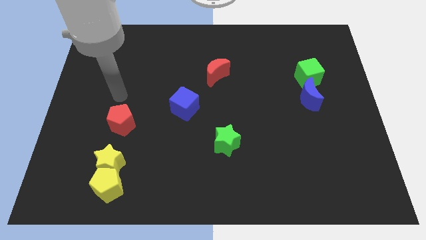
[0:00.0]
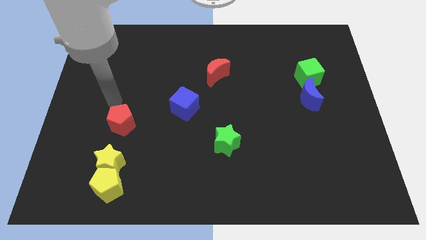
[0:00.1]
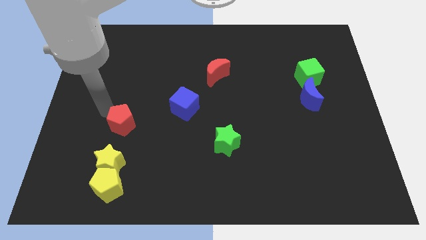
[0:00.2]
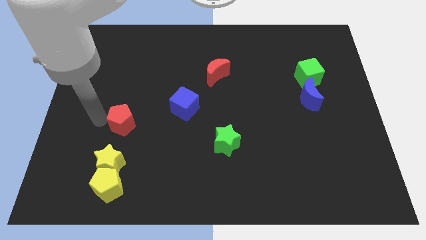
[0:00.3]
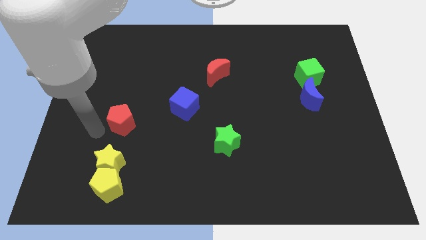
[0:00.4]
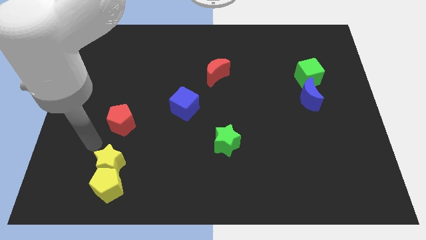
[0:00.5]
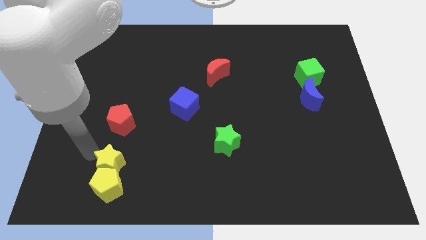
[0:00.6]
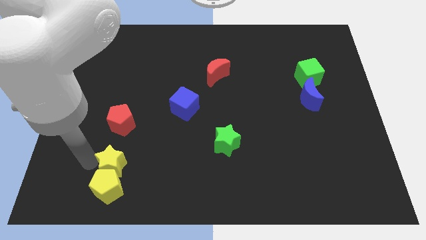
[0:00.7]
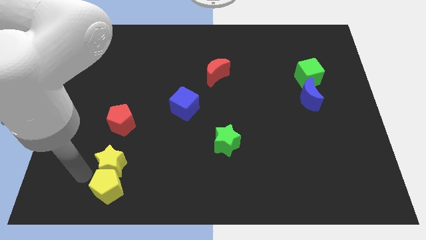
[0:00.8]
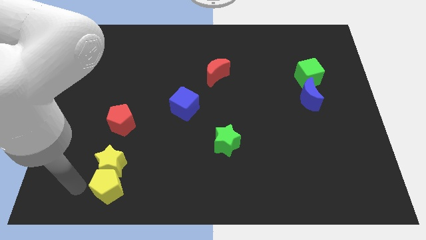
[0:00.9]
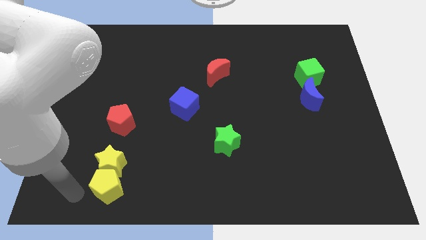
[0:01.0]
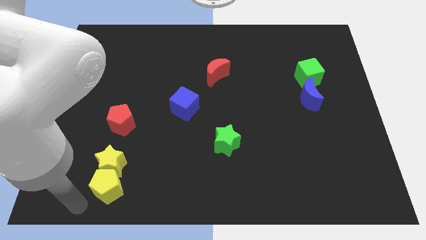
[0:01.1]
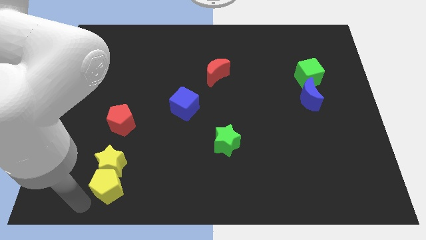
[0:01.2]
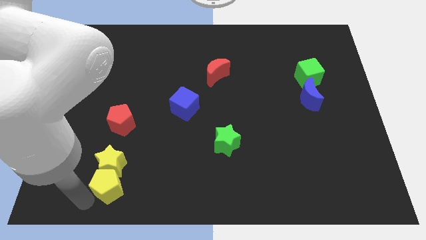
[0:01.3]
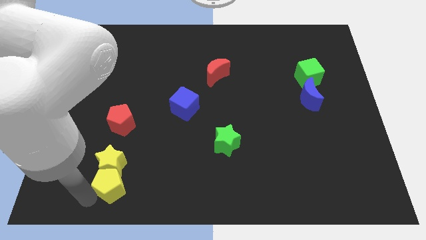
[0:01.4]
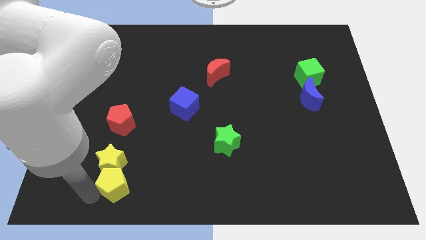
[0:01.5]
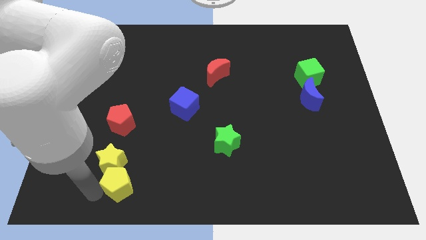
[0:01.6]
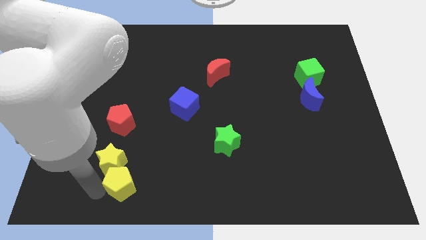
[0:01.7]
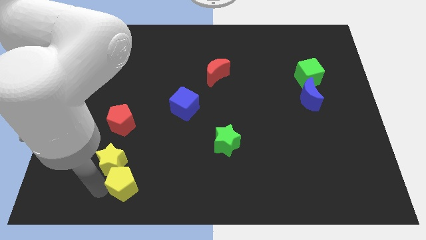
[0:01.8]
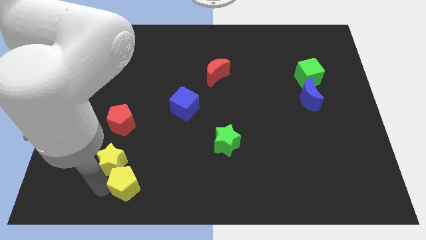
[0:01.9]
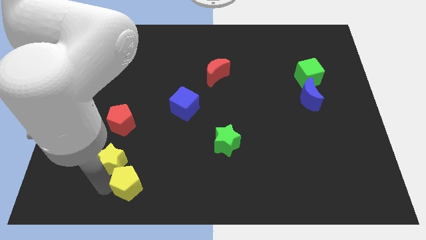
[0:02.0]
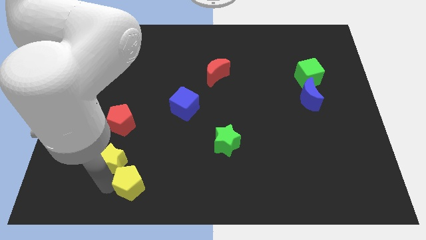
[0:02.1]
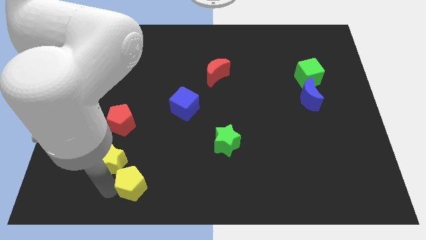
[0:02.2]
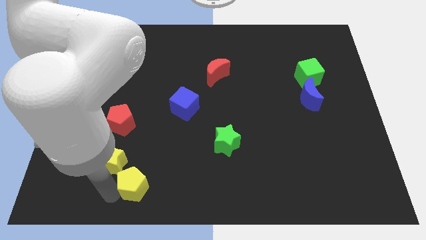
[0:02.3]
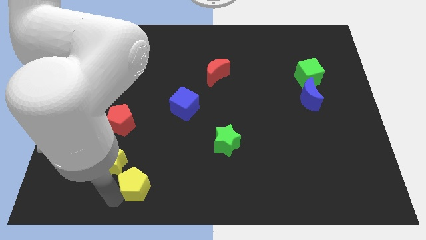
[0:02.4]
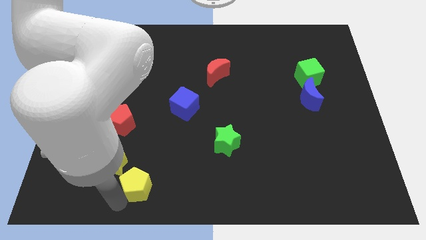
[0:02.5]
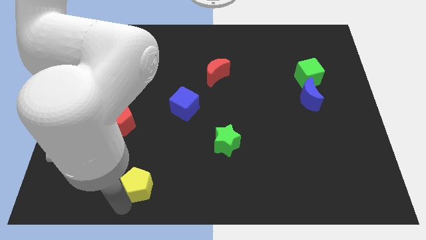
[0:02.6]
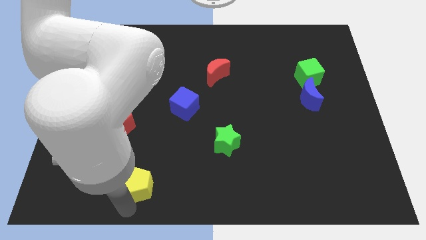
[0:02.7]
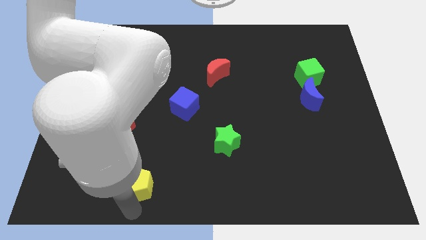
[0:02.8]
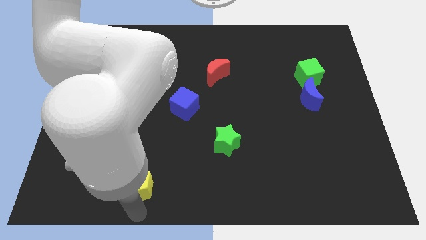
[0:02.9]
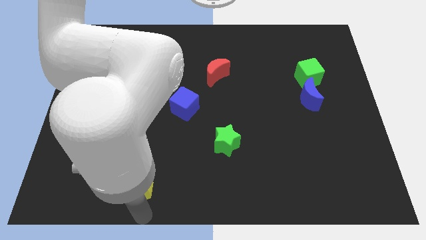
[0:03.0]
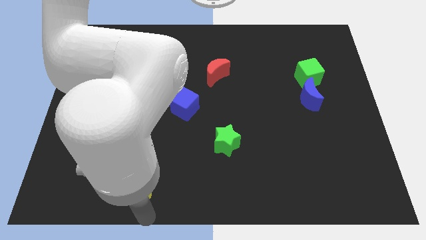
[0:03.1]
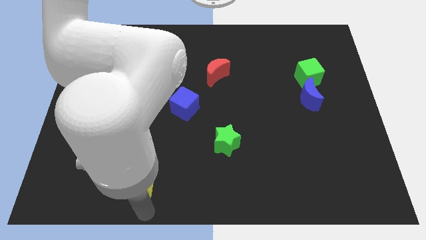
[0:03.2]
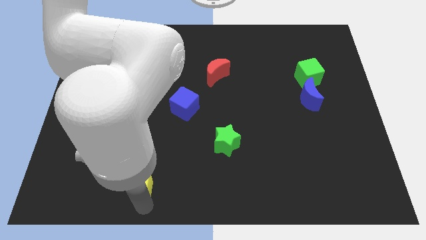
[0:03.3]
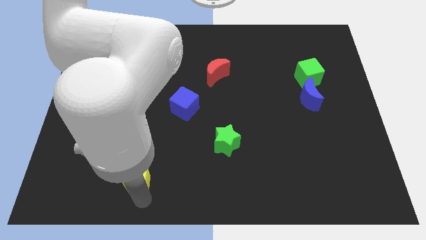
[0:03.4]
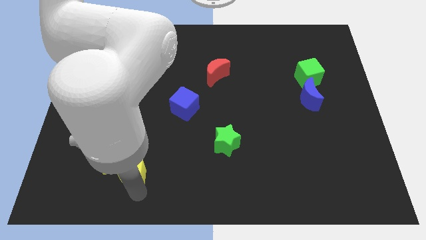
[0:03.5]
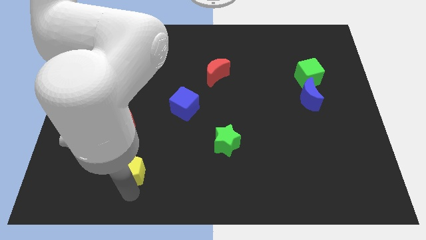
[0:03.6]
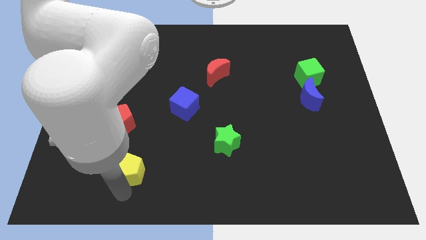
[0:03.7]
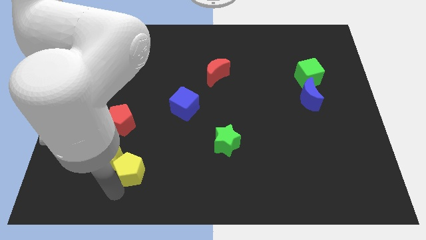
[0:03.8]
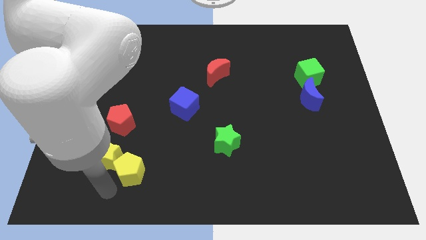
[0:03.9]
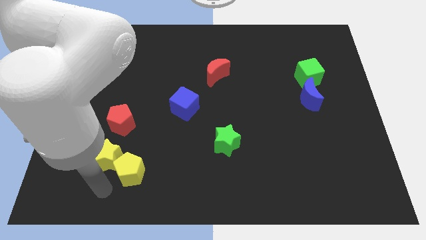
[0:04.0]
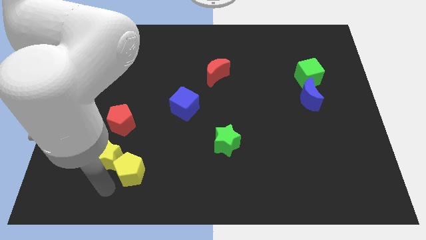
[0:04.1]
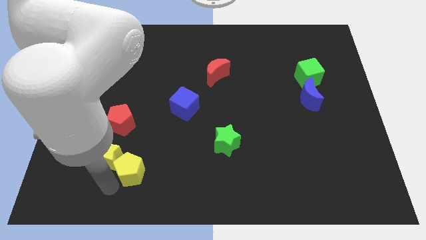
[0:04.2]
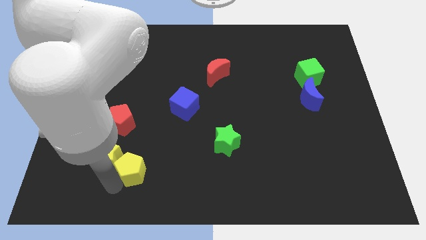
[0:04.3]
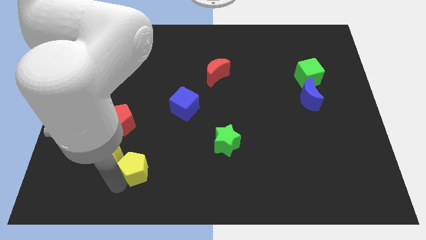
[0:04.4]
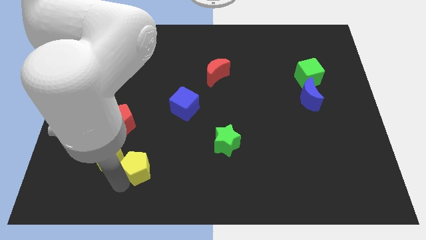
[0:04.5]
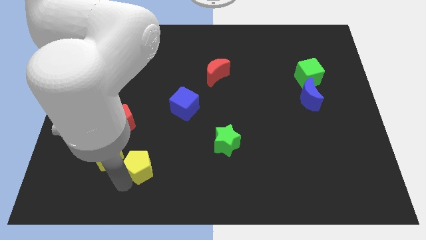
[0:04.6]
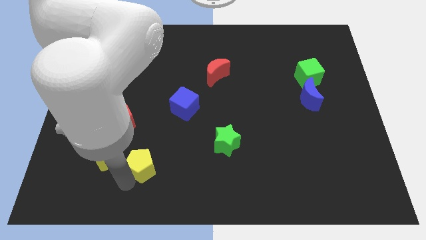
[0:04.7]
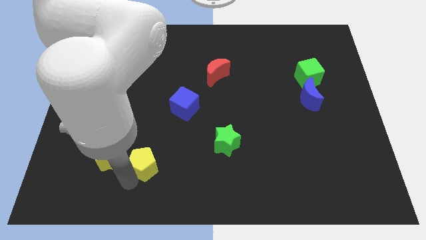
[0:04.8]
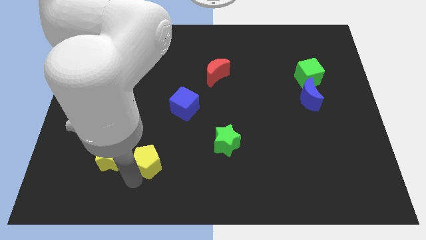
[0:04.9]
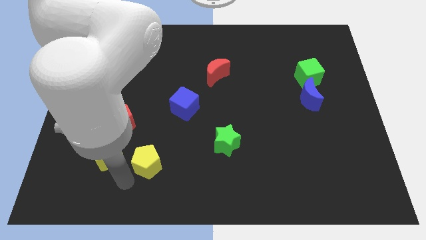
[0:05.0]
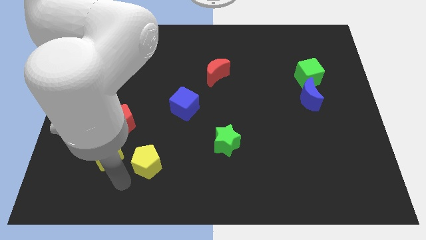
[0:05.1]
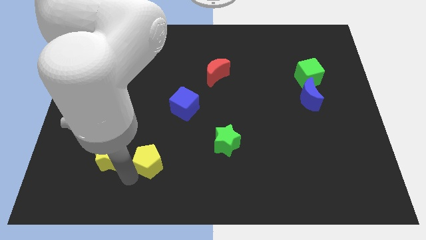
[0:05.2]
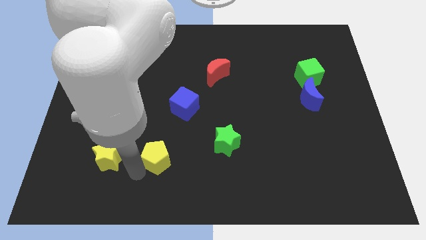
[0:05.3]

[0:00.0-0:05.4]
push the yellow pentagon to the left side of the green star

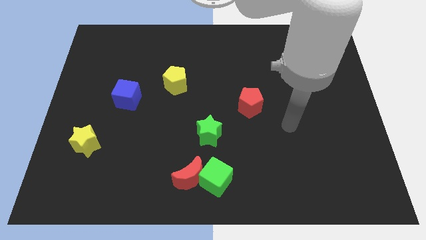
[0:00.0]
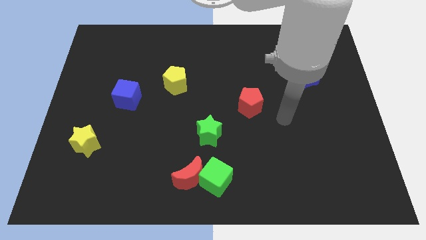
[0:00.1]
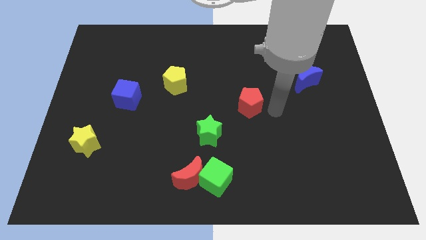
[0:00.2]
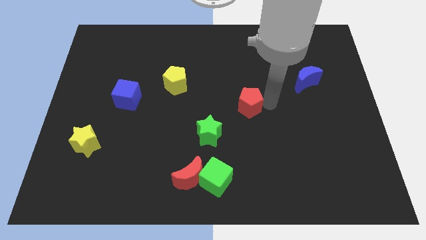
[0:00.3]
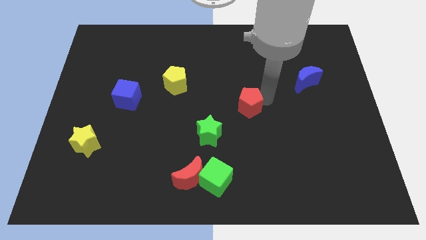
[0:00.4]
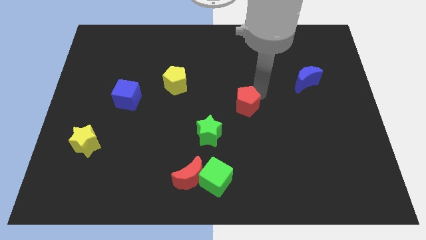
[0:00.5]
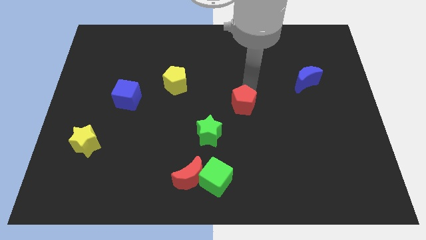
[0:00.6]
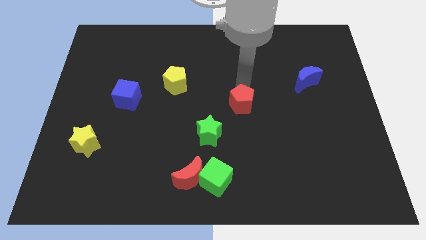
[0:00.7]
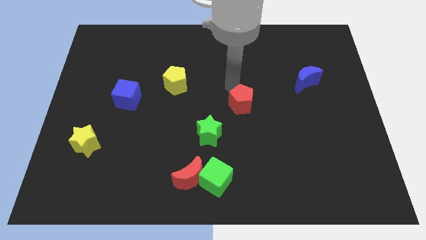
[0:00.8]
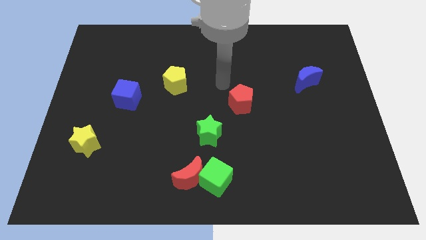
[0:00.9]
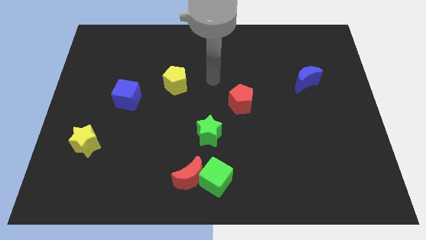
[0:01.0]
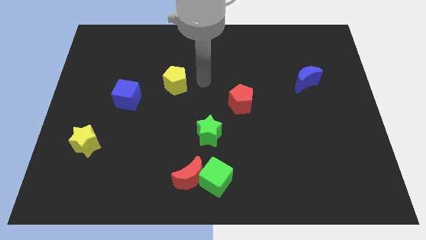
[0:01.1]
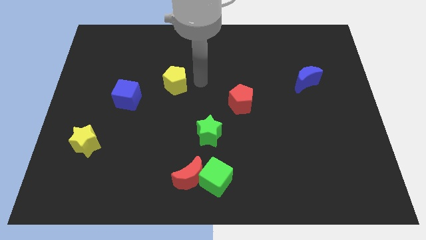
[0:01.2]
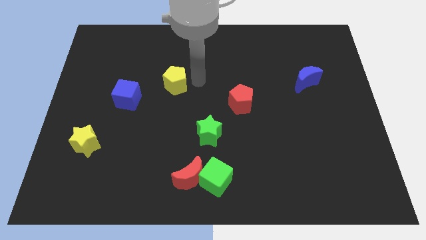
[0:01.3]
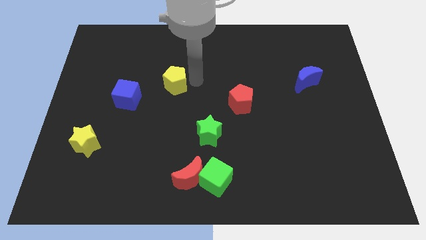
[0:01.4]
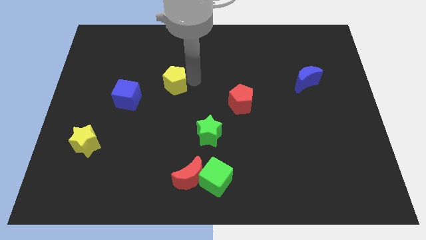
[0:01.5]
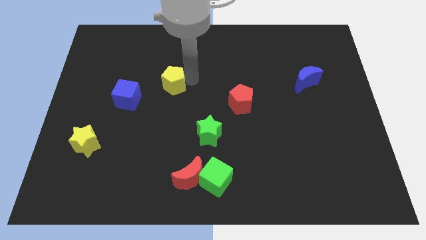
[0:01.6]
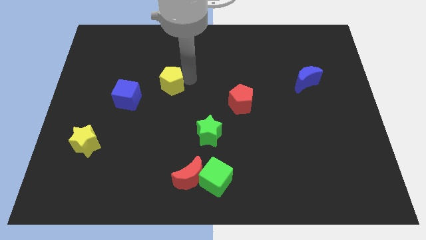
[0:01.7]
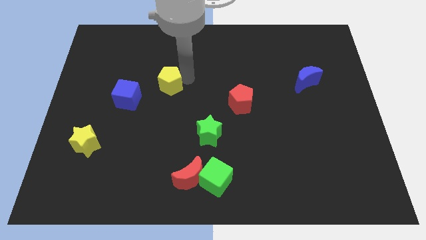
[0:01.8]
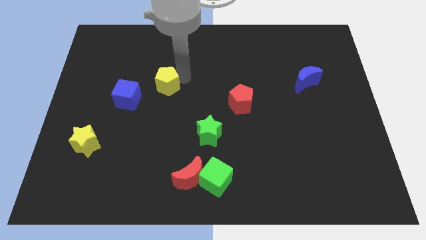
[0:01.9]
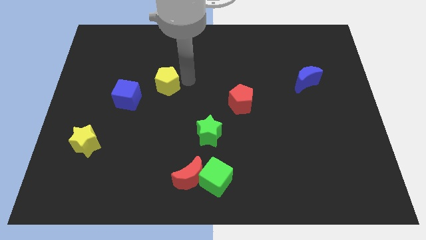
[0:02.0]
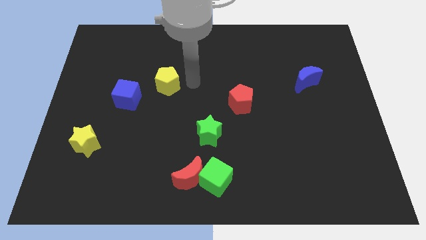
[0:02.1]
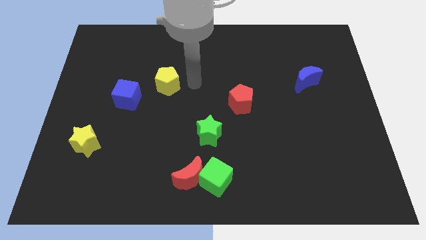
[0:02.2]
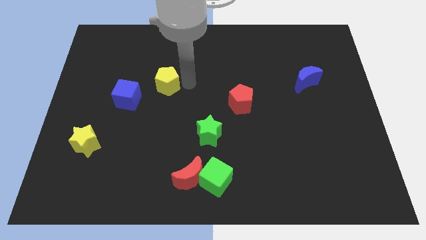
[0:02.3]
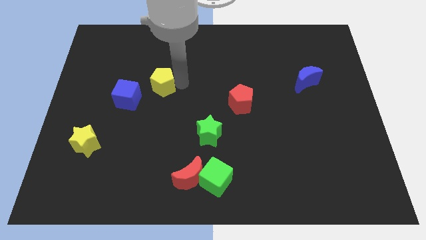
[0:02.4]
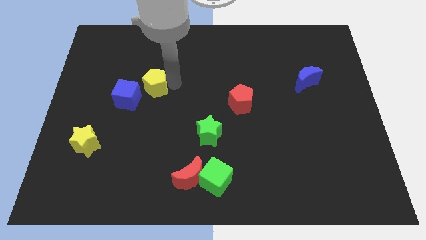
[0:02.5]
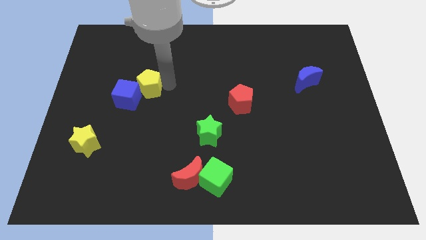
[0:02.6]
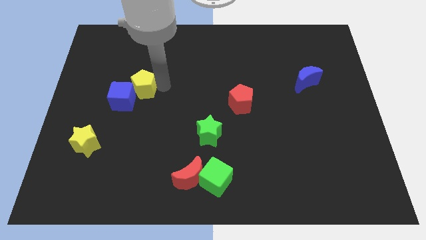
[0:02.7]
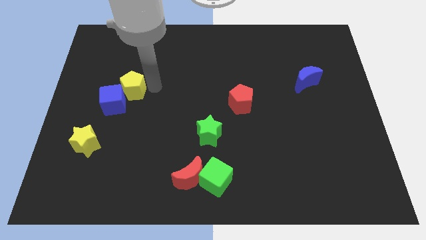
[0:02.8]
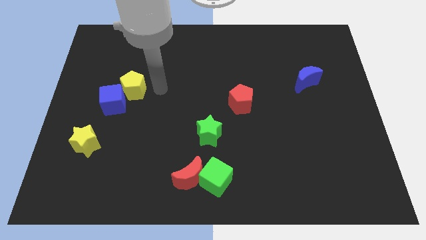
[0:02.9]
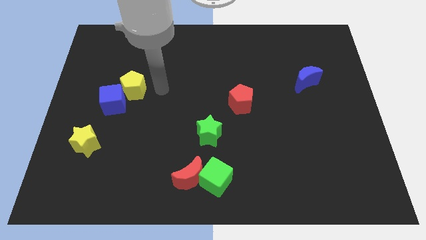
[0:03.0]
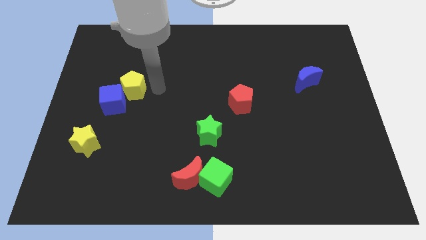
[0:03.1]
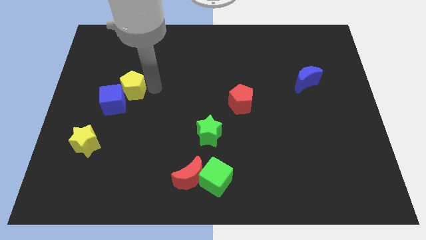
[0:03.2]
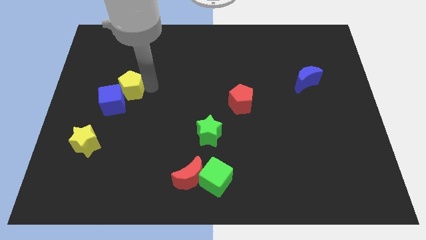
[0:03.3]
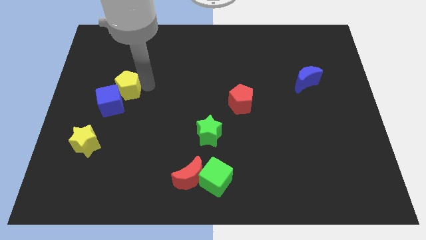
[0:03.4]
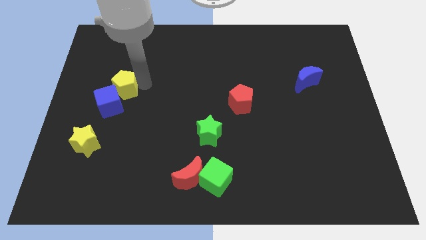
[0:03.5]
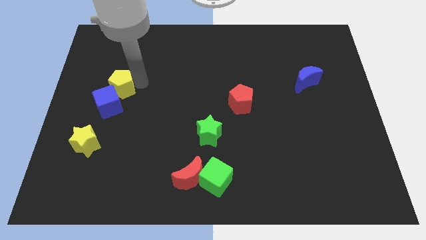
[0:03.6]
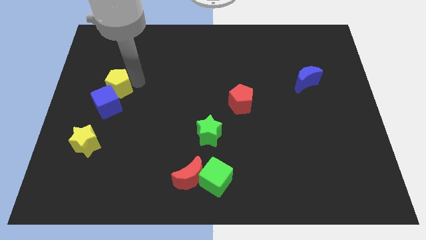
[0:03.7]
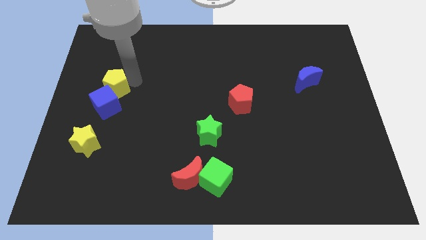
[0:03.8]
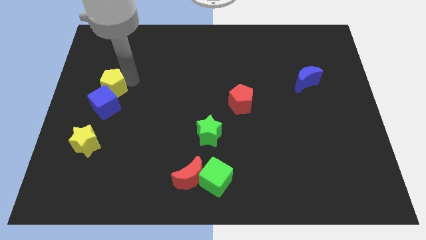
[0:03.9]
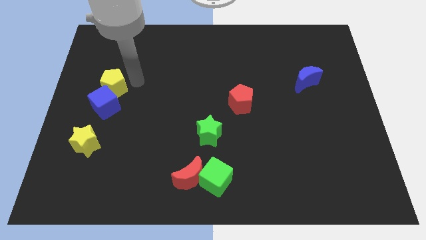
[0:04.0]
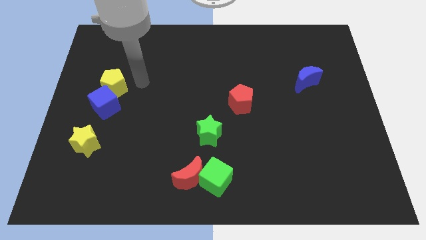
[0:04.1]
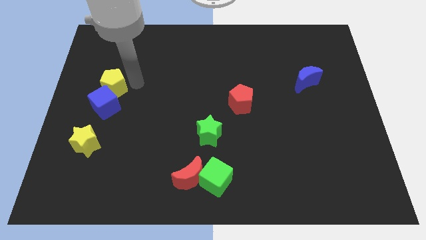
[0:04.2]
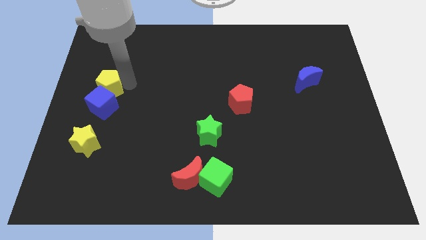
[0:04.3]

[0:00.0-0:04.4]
slide the yellow pentagon to the top left side of the blue cube
